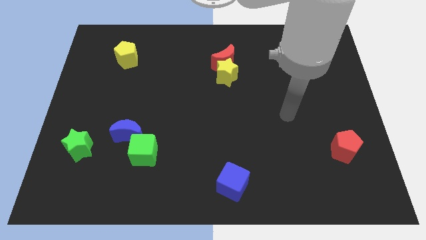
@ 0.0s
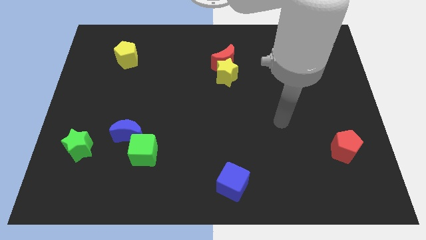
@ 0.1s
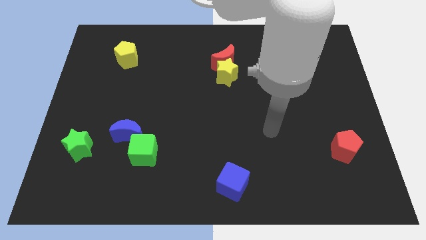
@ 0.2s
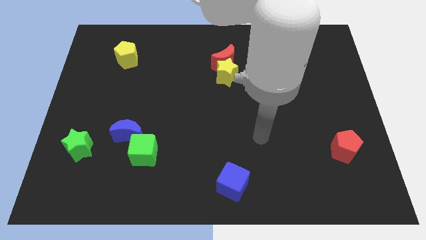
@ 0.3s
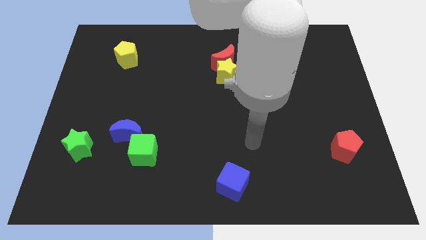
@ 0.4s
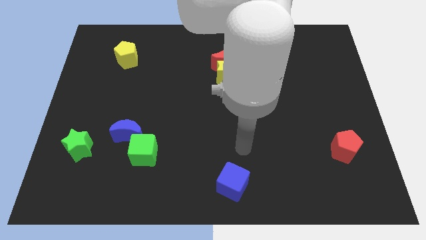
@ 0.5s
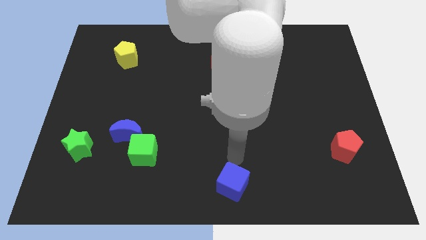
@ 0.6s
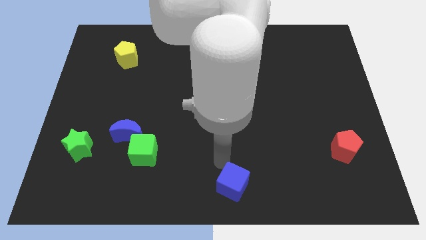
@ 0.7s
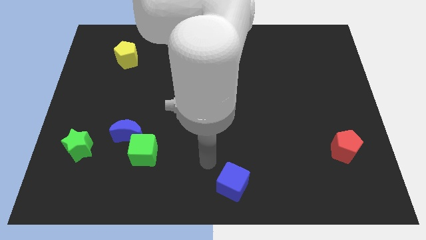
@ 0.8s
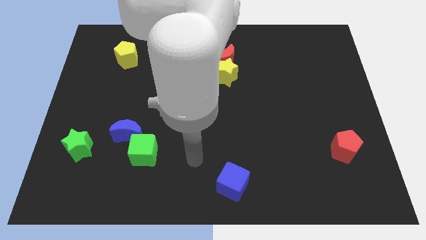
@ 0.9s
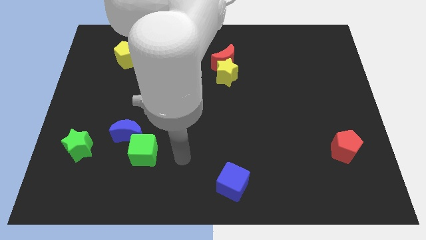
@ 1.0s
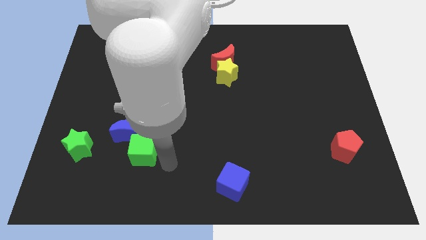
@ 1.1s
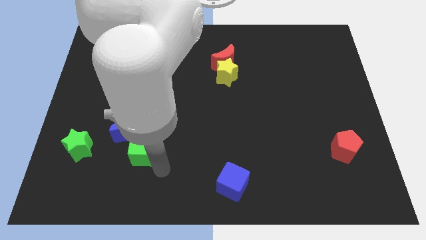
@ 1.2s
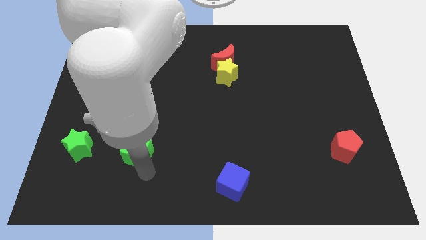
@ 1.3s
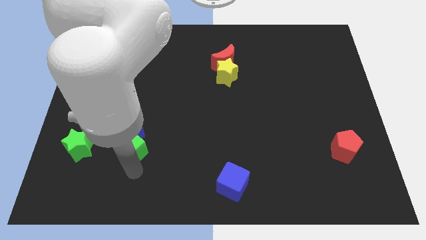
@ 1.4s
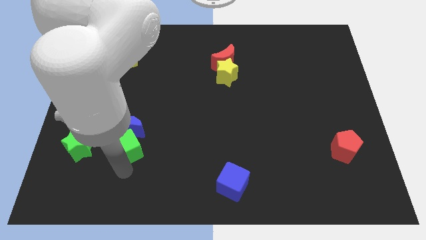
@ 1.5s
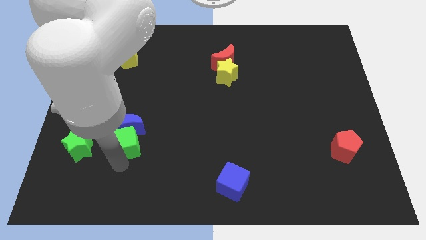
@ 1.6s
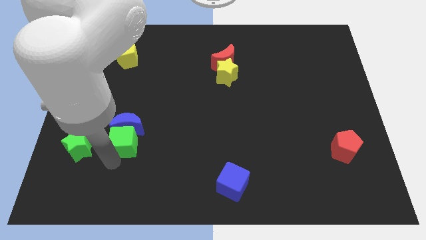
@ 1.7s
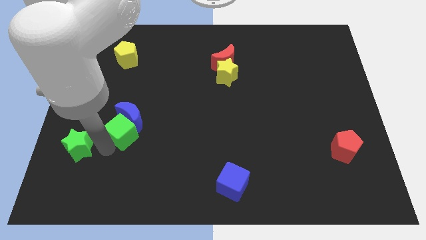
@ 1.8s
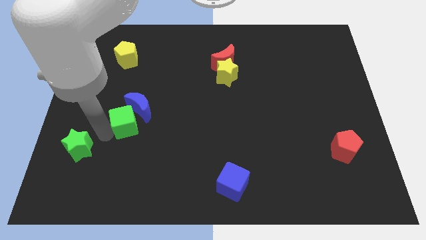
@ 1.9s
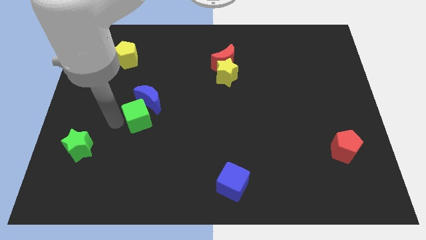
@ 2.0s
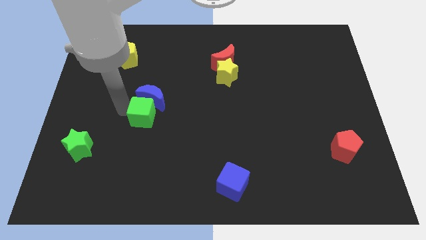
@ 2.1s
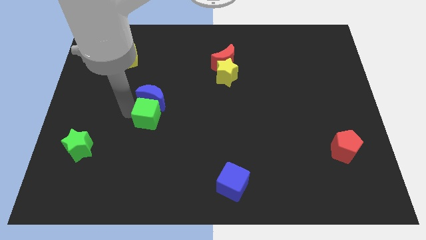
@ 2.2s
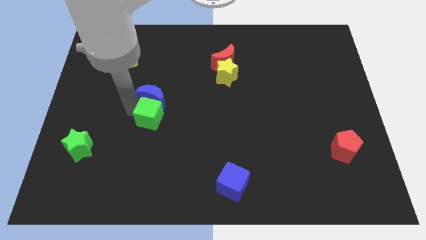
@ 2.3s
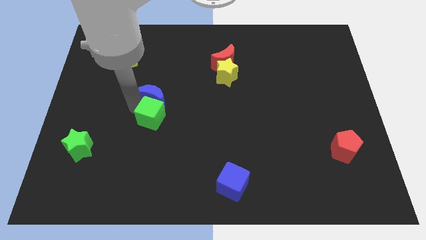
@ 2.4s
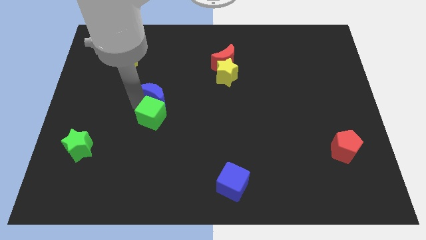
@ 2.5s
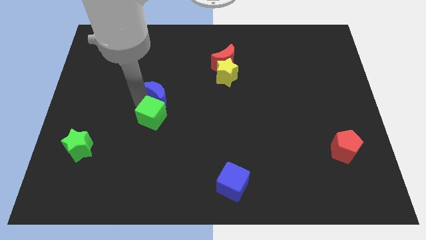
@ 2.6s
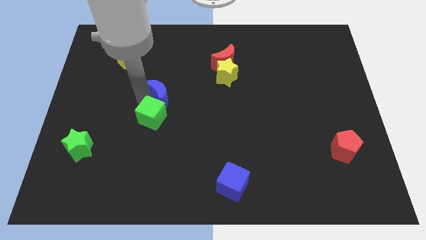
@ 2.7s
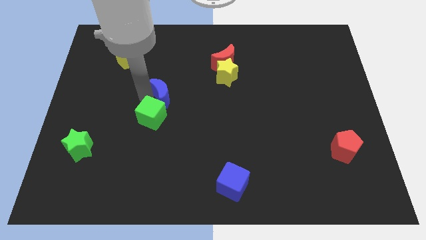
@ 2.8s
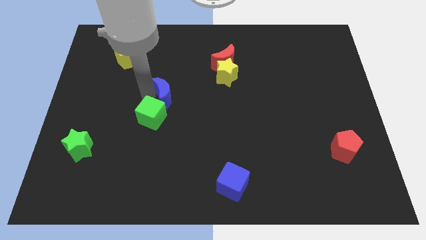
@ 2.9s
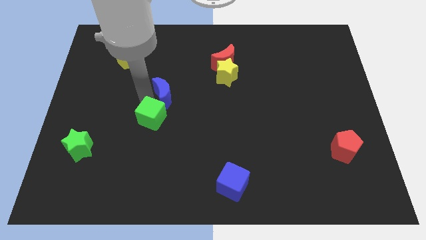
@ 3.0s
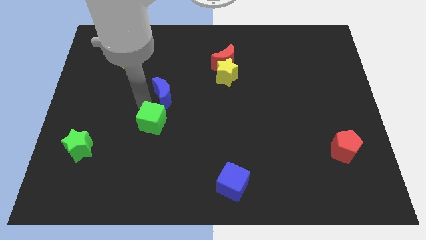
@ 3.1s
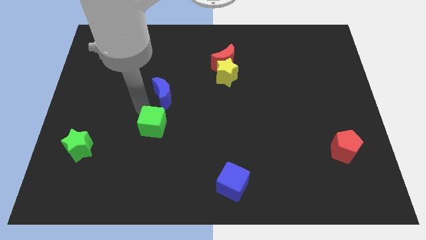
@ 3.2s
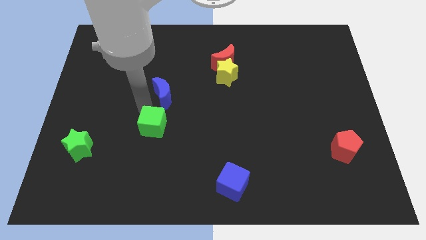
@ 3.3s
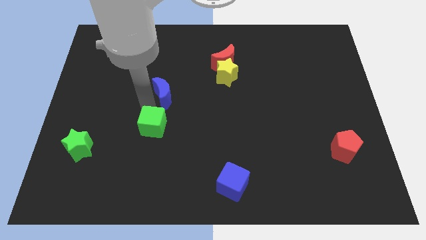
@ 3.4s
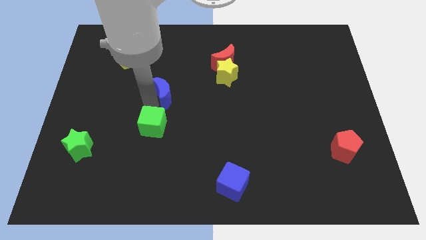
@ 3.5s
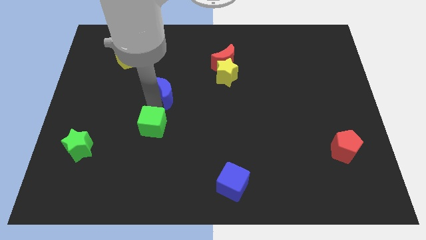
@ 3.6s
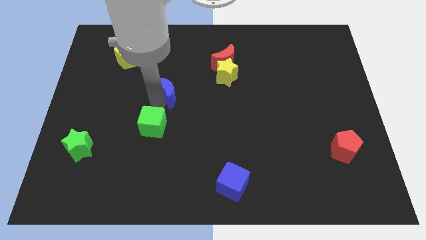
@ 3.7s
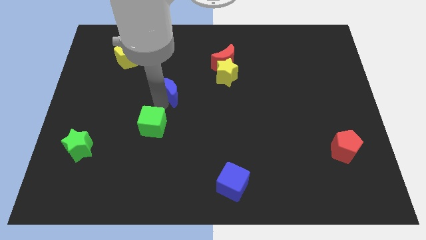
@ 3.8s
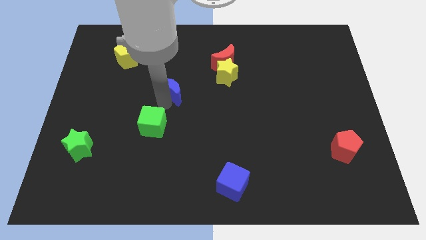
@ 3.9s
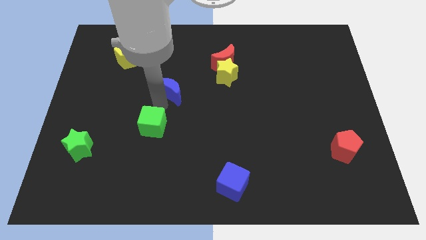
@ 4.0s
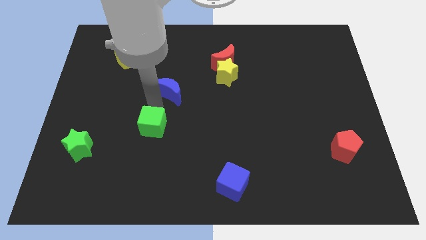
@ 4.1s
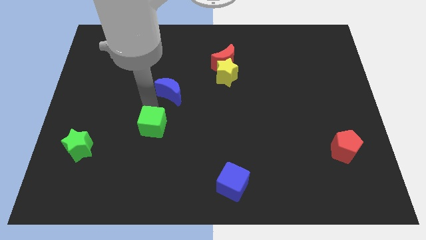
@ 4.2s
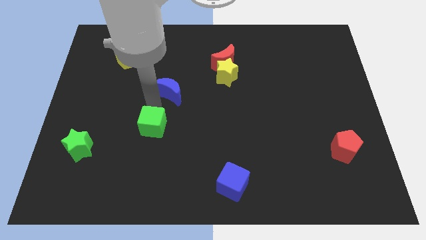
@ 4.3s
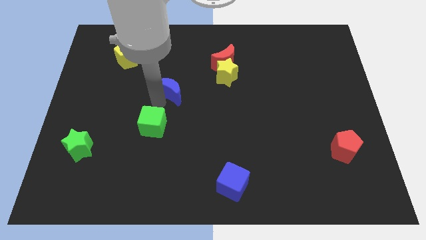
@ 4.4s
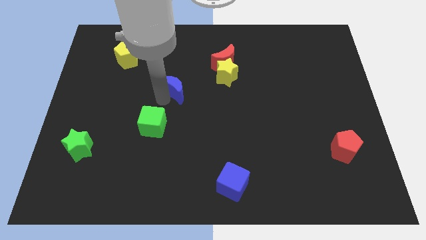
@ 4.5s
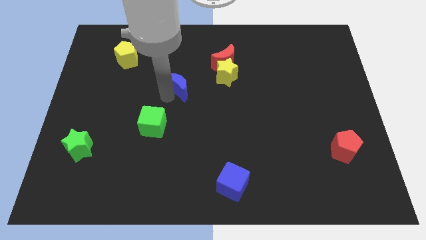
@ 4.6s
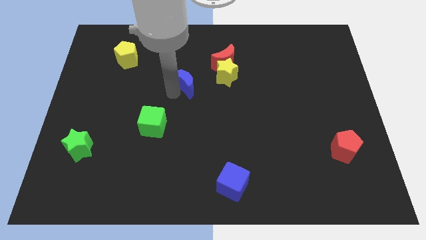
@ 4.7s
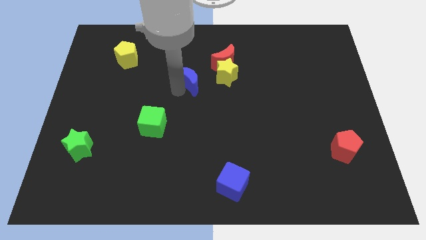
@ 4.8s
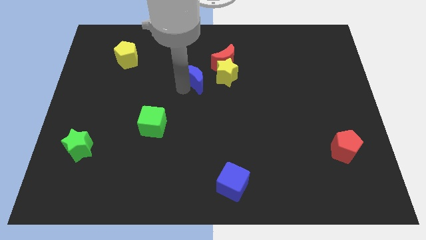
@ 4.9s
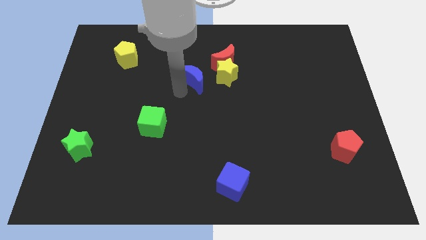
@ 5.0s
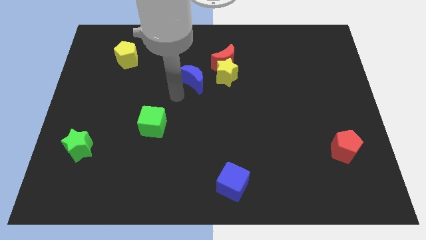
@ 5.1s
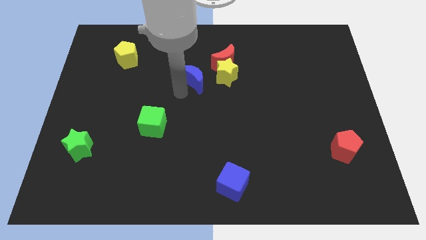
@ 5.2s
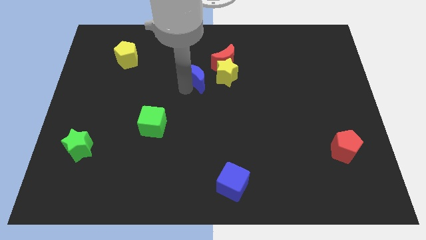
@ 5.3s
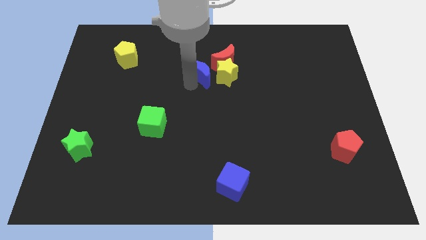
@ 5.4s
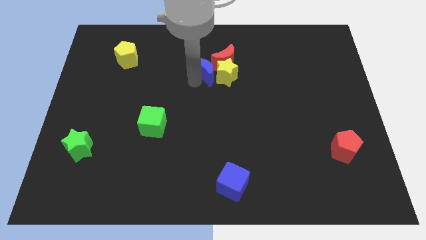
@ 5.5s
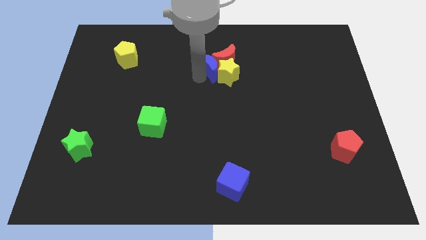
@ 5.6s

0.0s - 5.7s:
slide the blue moon towards the red moon

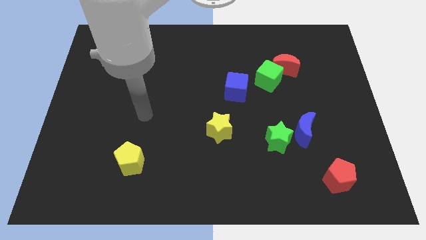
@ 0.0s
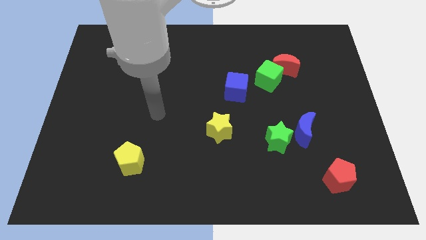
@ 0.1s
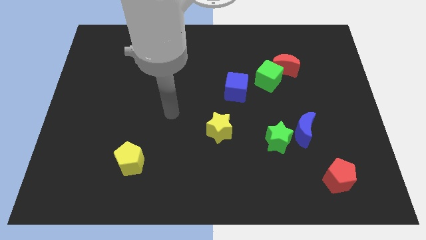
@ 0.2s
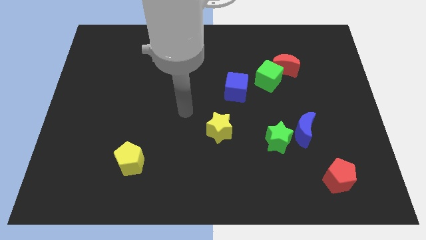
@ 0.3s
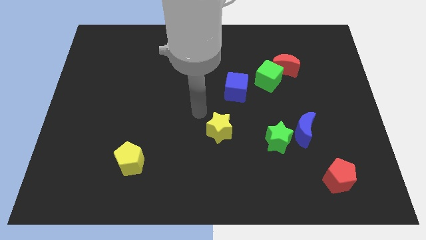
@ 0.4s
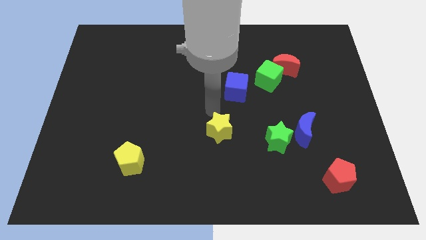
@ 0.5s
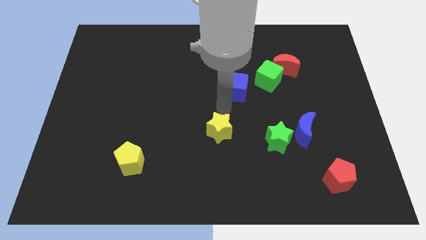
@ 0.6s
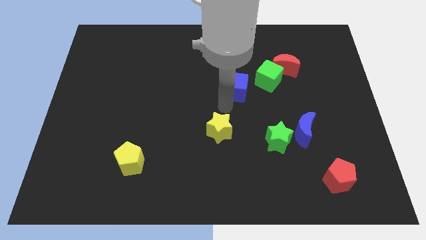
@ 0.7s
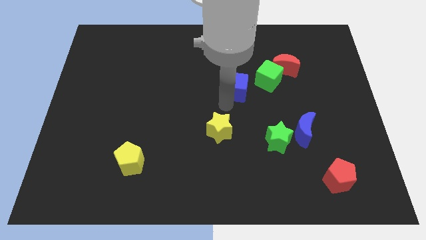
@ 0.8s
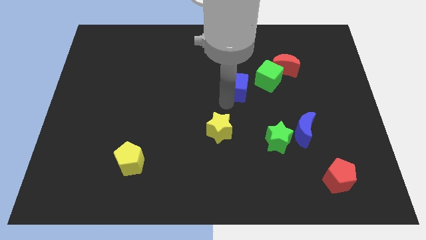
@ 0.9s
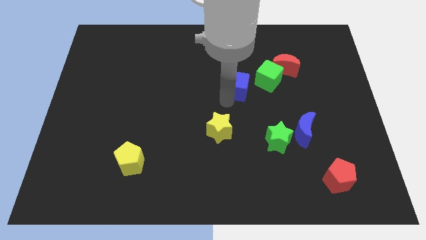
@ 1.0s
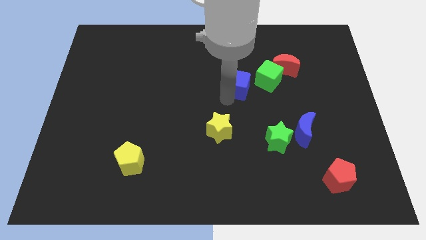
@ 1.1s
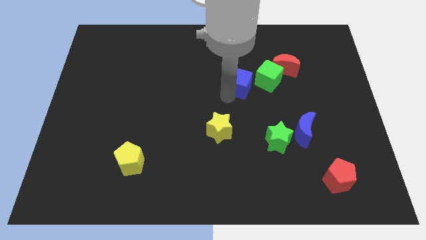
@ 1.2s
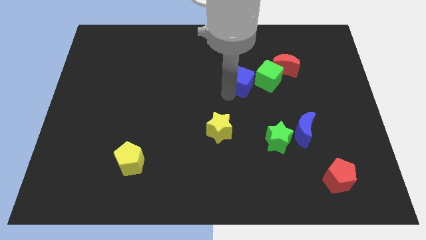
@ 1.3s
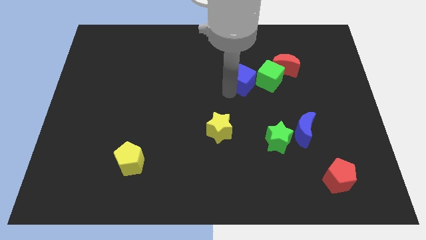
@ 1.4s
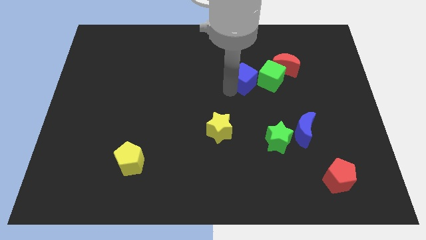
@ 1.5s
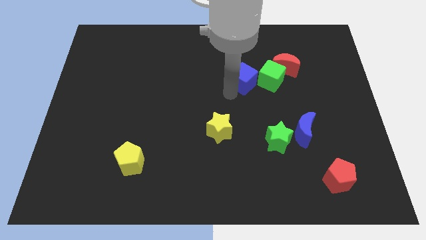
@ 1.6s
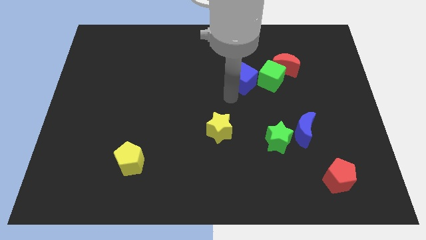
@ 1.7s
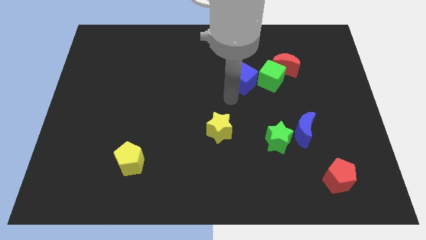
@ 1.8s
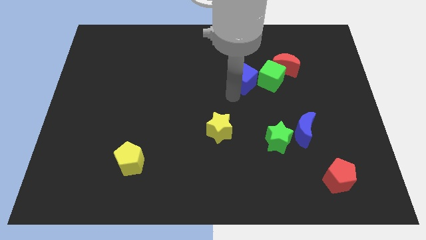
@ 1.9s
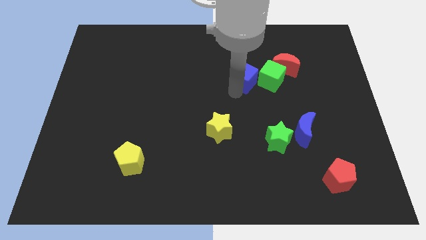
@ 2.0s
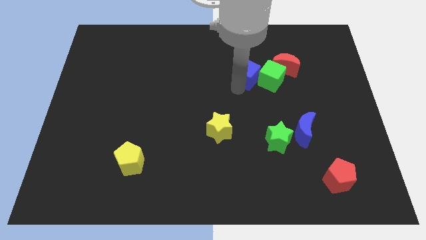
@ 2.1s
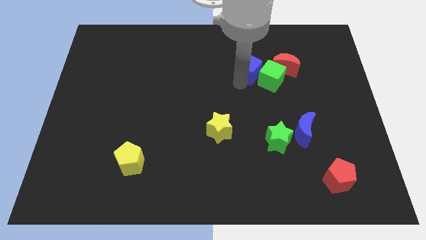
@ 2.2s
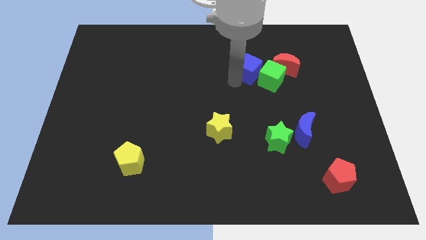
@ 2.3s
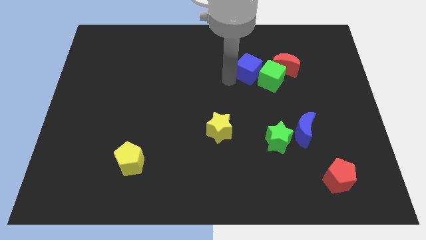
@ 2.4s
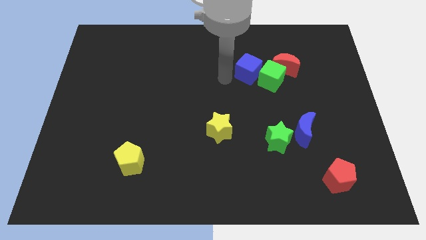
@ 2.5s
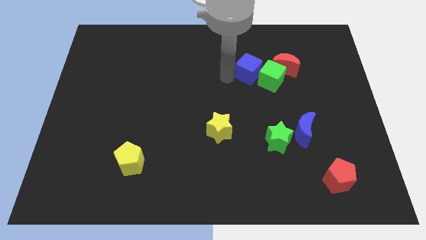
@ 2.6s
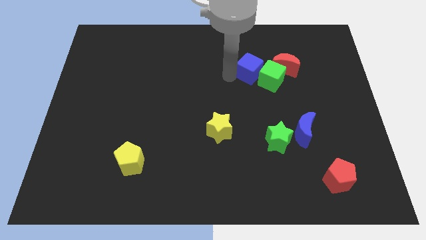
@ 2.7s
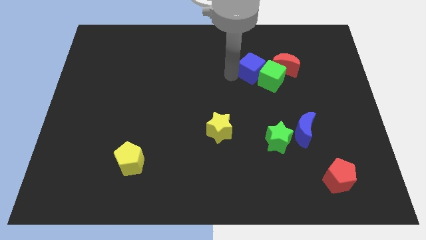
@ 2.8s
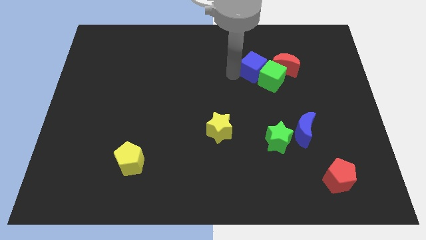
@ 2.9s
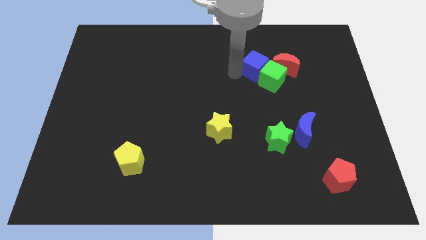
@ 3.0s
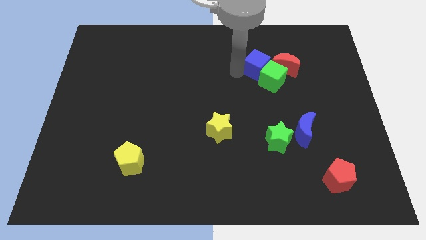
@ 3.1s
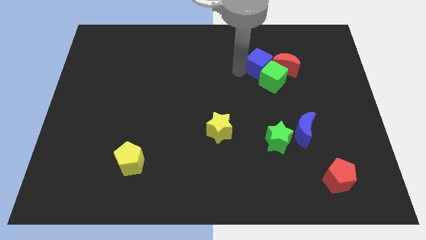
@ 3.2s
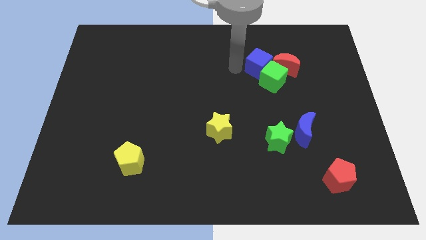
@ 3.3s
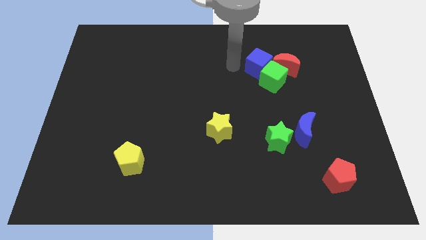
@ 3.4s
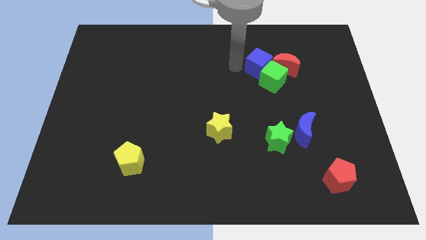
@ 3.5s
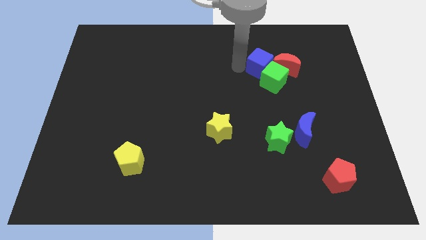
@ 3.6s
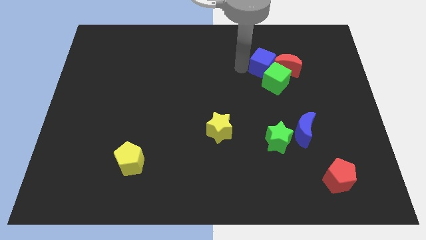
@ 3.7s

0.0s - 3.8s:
push the blue cube towards the red moon
